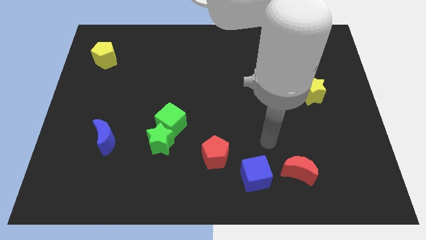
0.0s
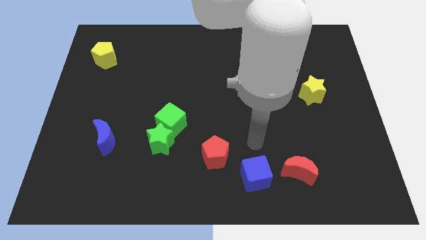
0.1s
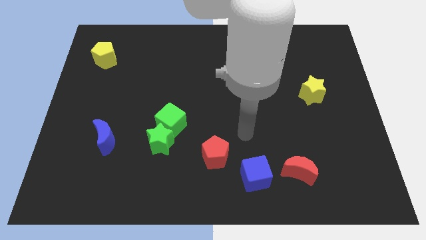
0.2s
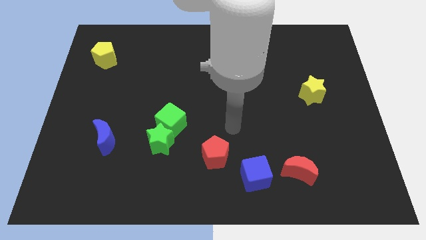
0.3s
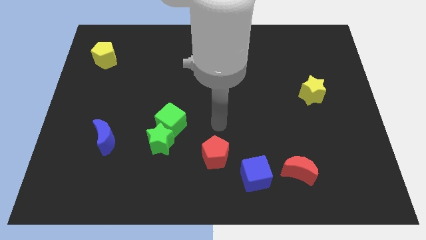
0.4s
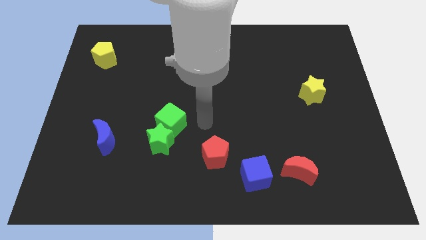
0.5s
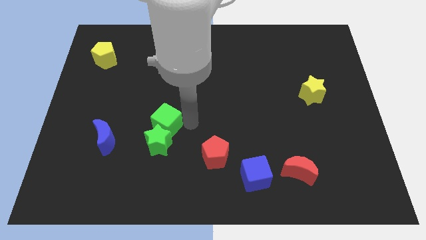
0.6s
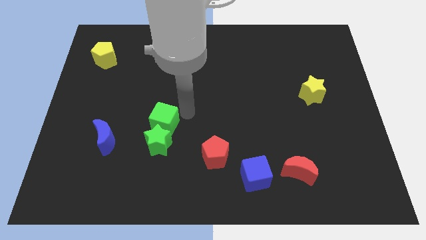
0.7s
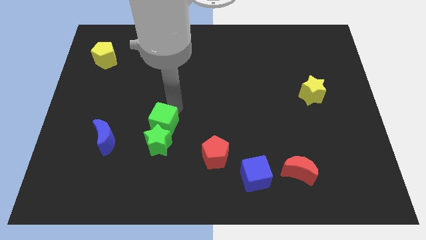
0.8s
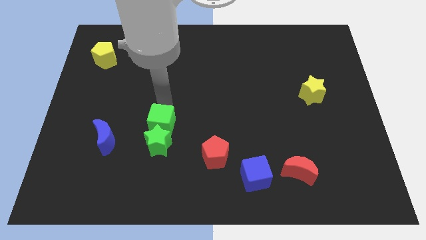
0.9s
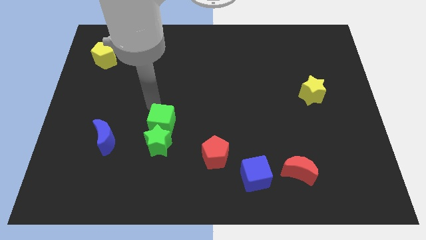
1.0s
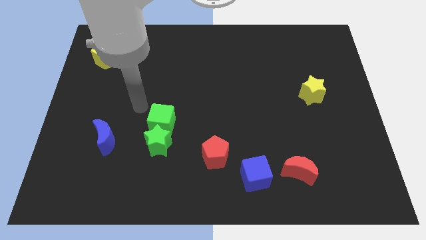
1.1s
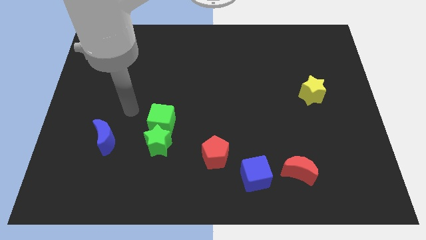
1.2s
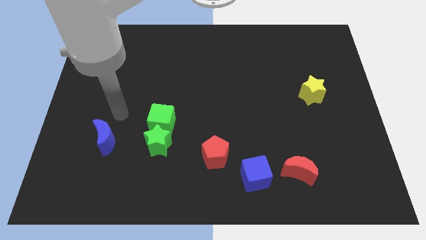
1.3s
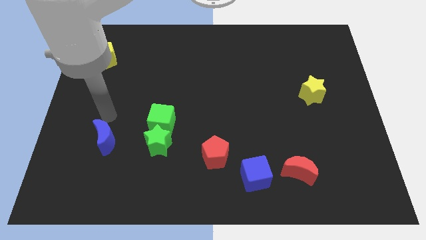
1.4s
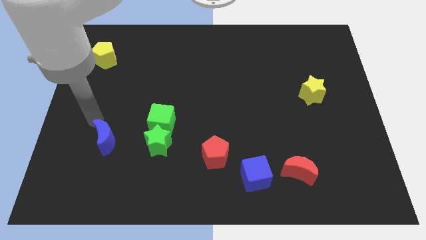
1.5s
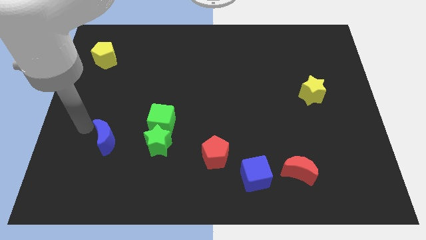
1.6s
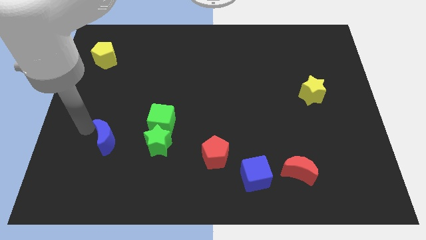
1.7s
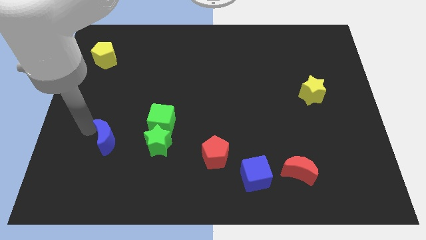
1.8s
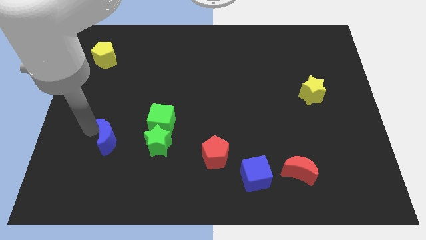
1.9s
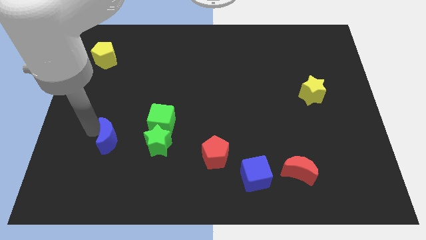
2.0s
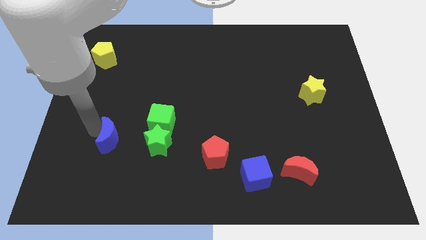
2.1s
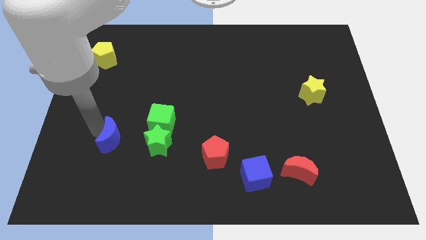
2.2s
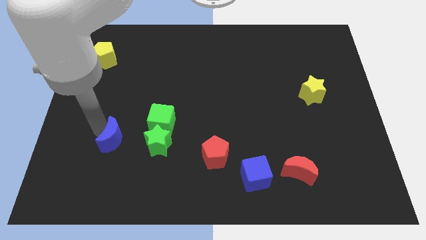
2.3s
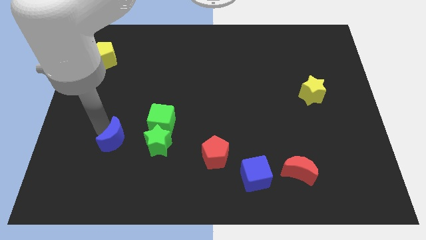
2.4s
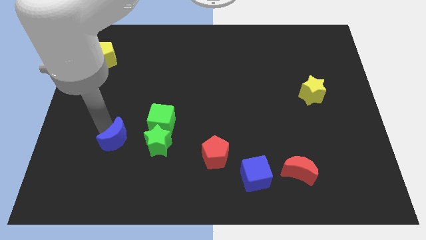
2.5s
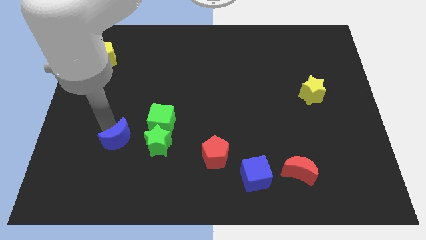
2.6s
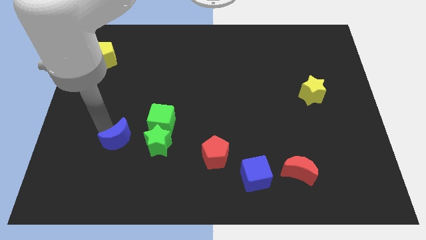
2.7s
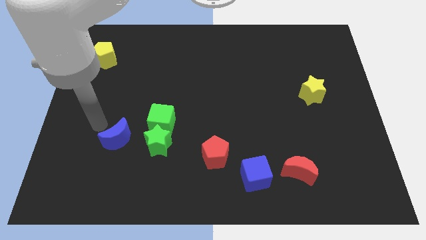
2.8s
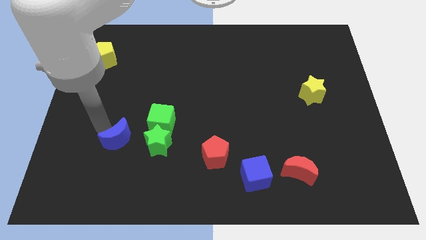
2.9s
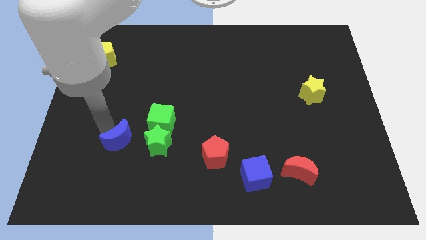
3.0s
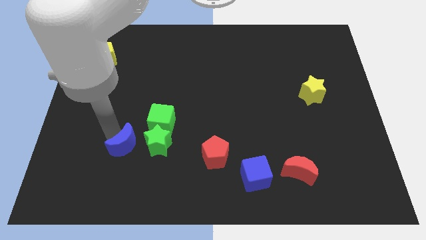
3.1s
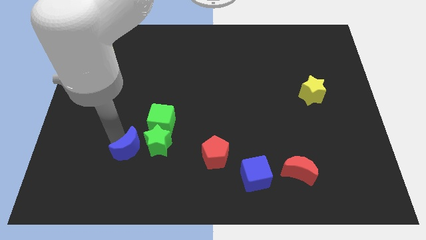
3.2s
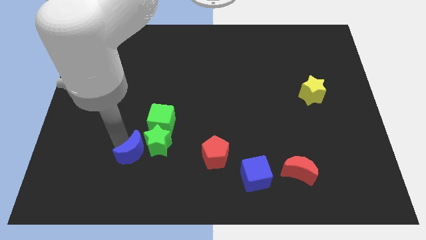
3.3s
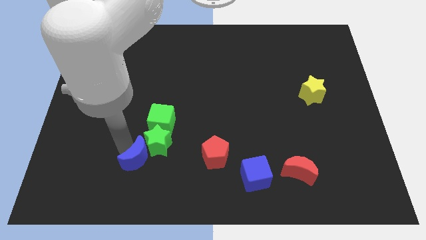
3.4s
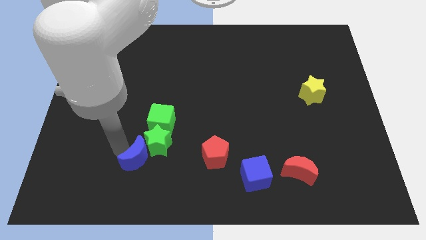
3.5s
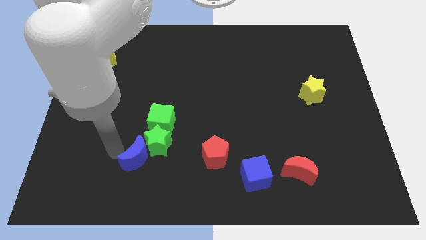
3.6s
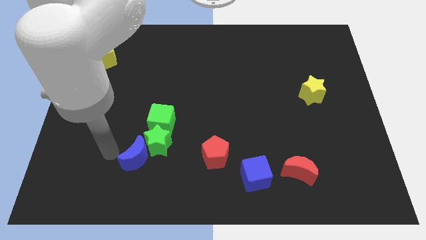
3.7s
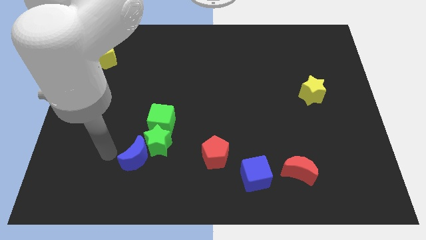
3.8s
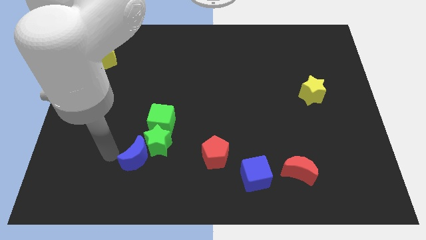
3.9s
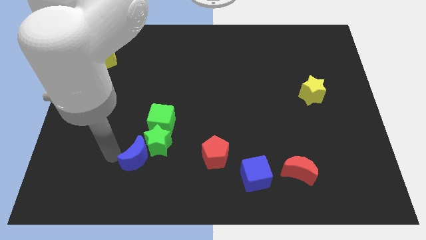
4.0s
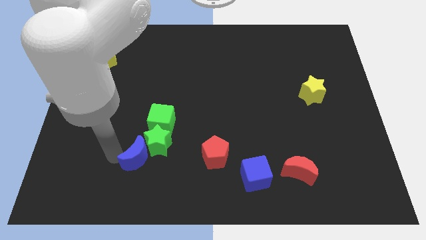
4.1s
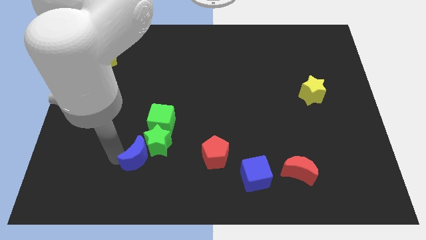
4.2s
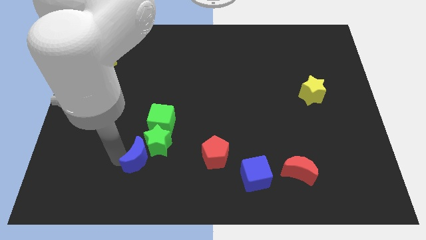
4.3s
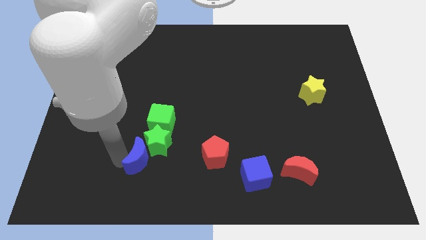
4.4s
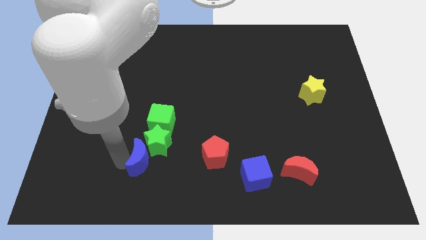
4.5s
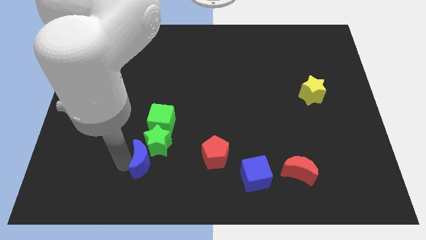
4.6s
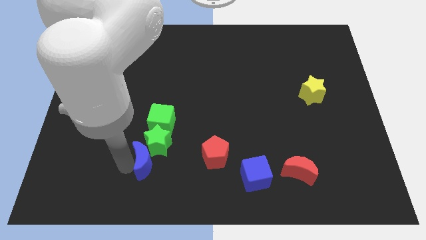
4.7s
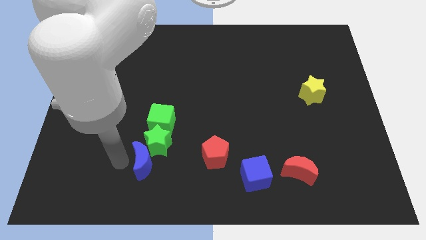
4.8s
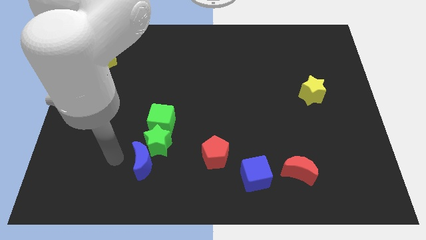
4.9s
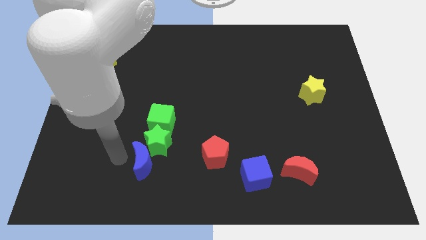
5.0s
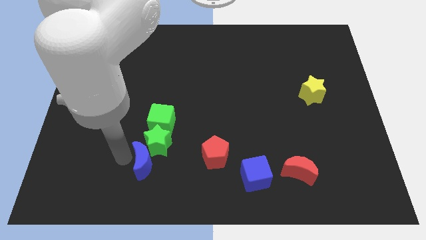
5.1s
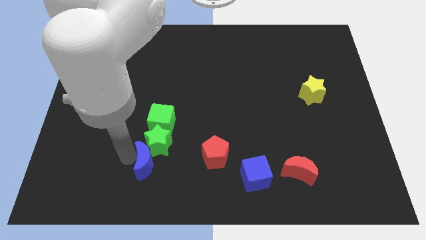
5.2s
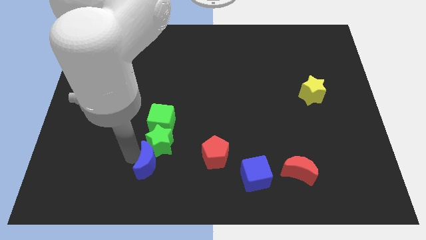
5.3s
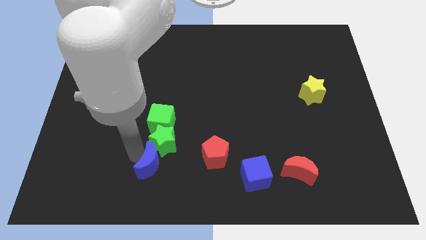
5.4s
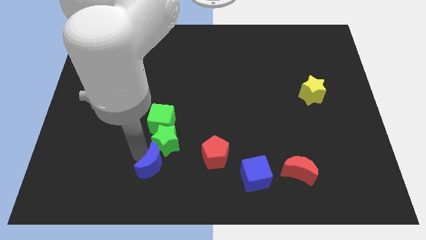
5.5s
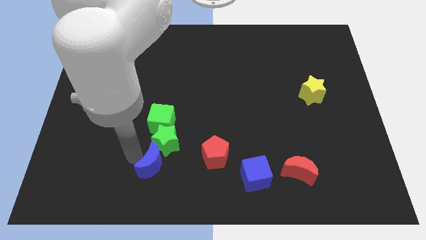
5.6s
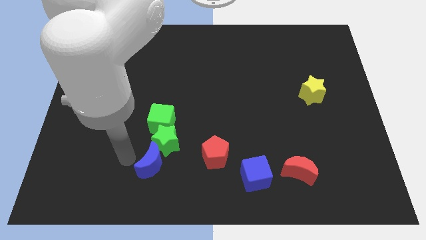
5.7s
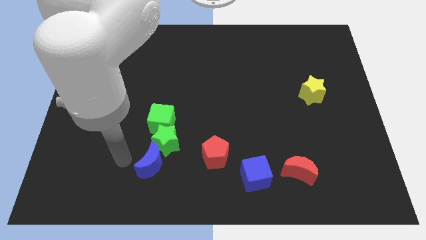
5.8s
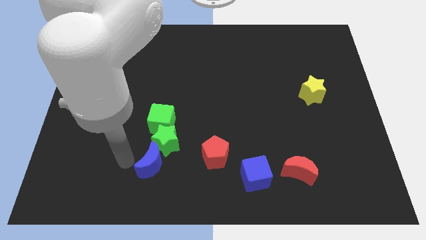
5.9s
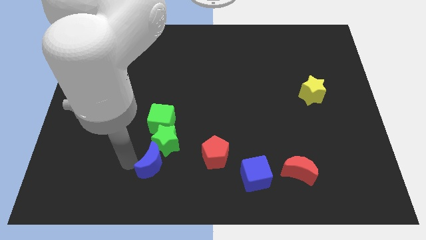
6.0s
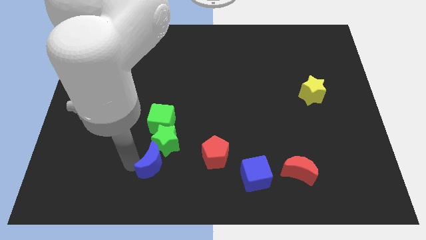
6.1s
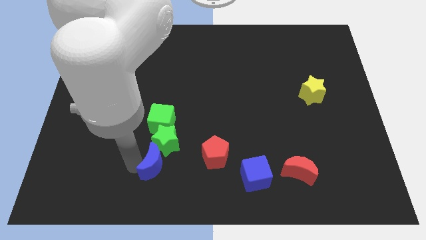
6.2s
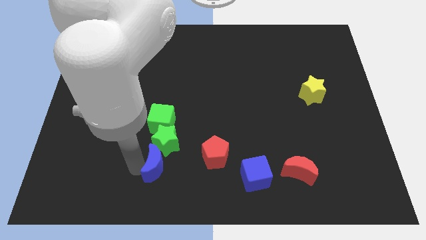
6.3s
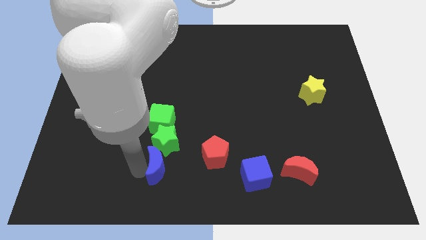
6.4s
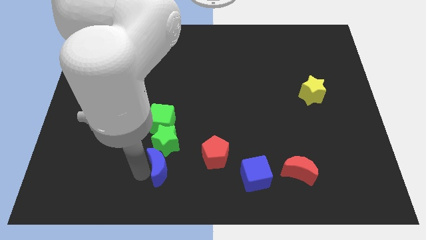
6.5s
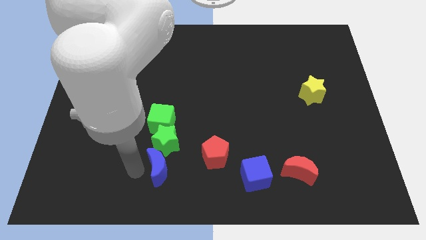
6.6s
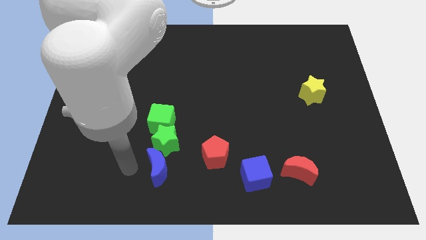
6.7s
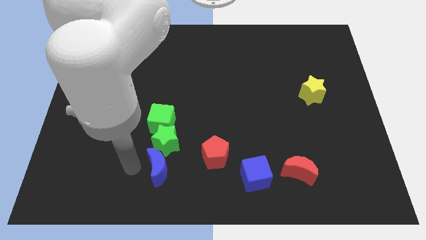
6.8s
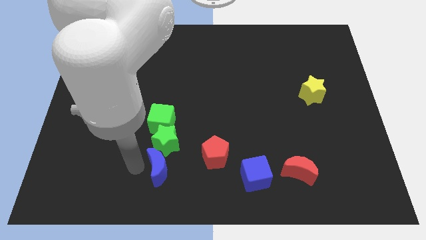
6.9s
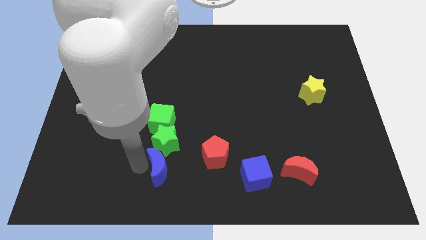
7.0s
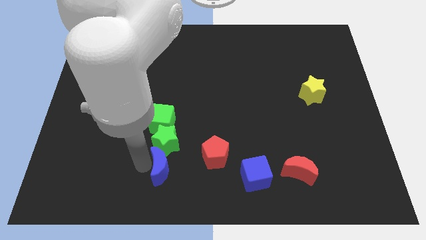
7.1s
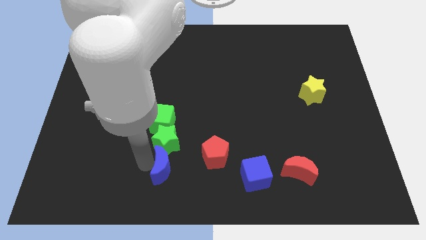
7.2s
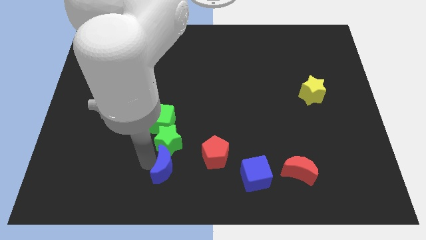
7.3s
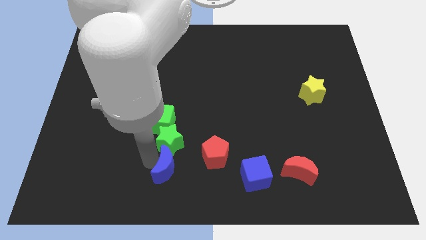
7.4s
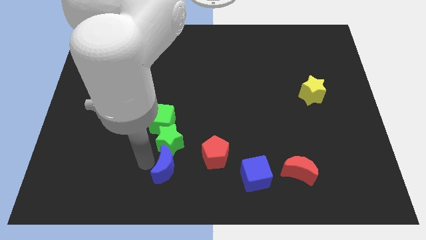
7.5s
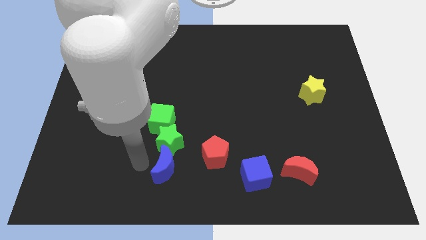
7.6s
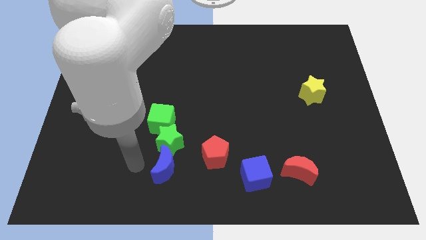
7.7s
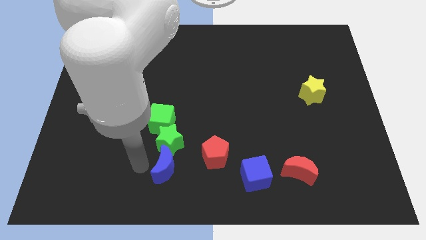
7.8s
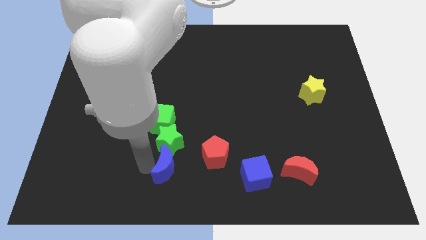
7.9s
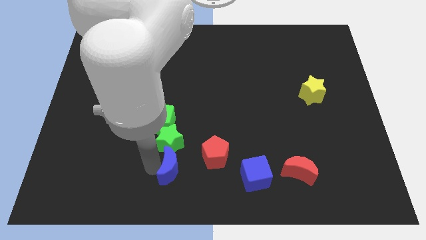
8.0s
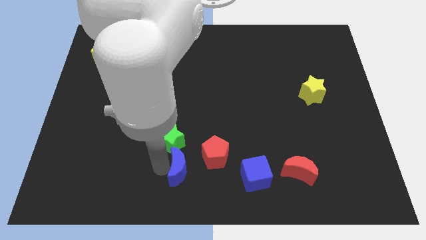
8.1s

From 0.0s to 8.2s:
push the blue moon to the left side of the blue cube
